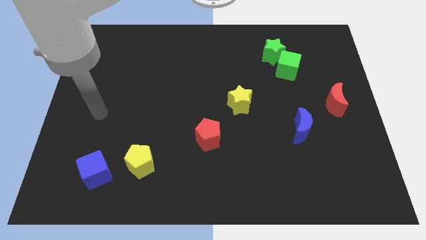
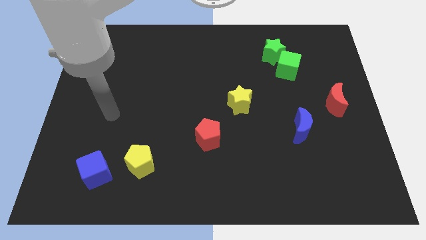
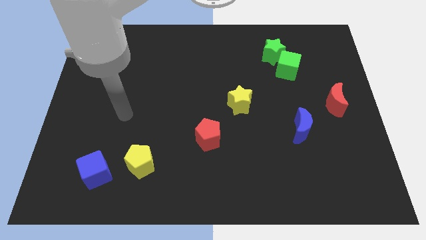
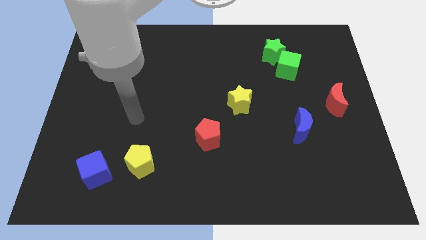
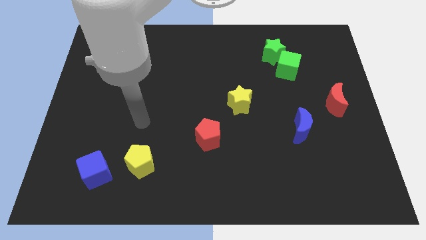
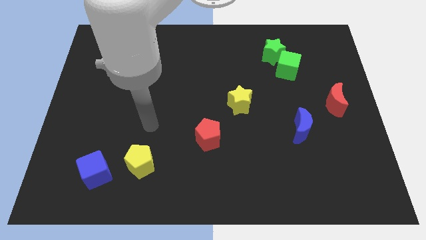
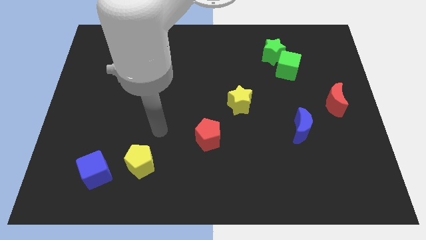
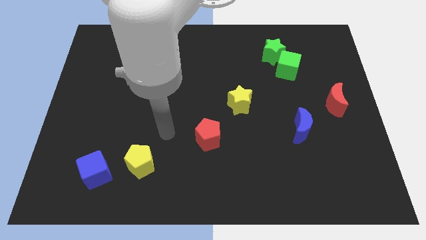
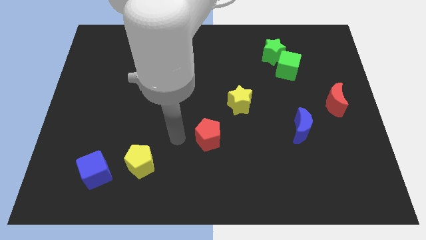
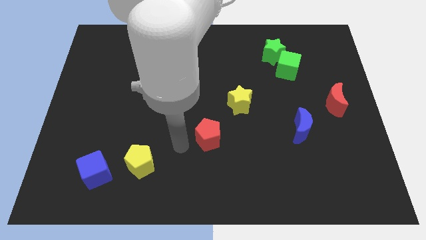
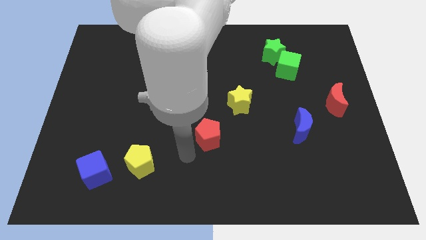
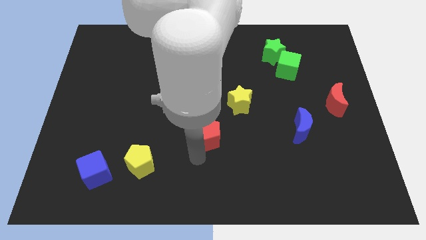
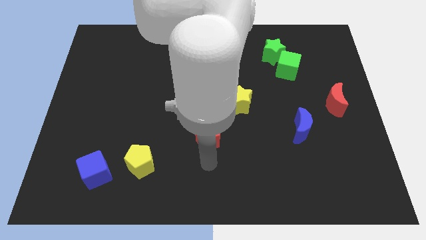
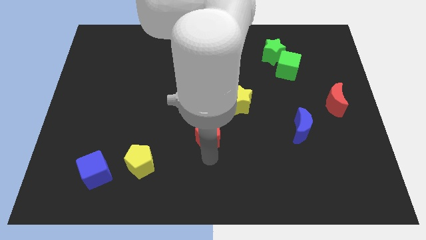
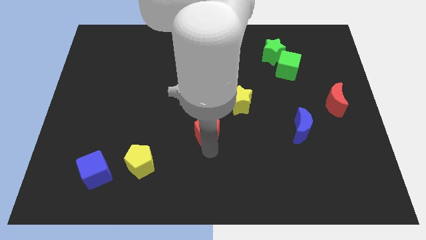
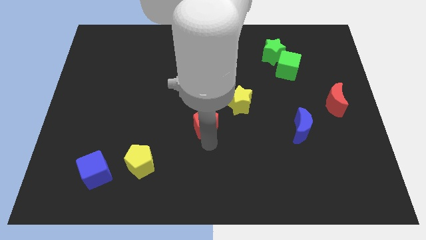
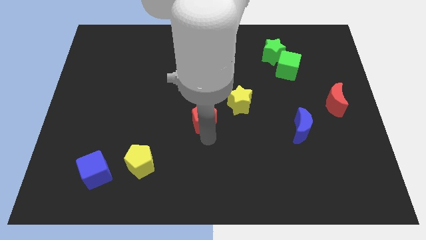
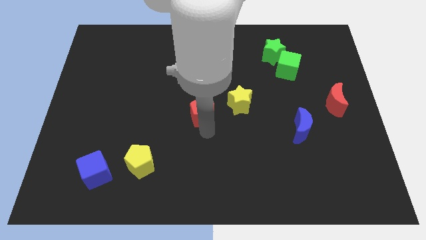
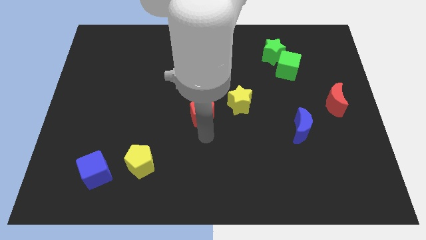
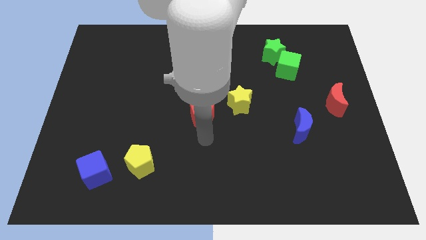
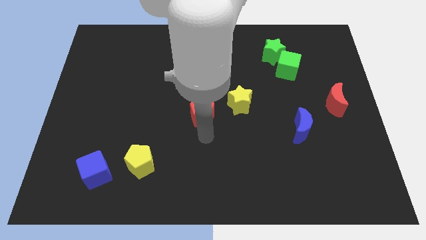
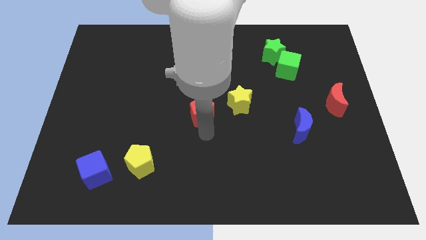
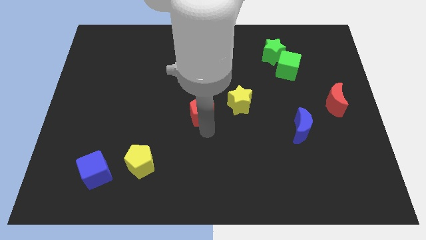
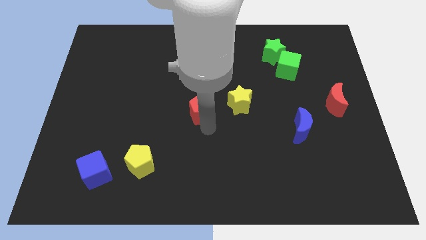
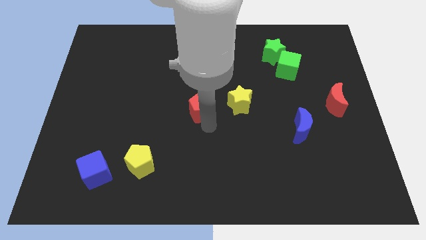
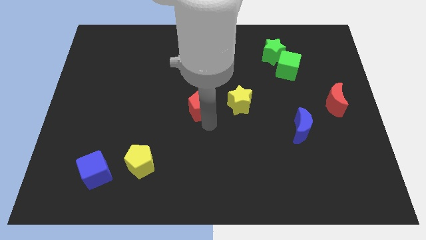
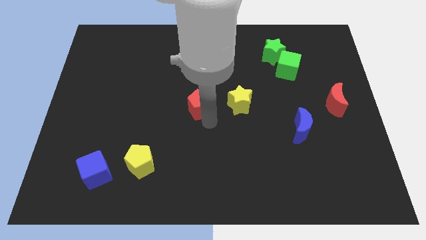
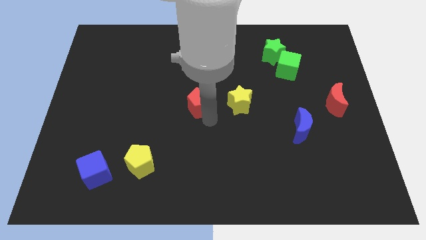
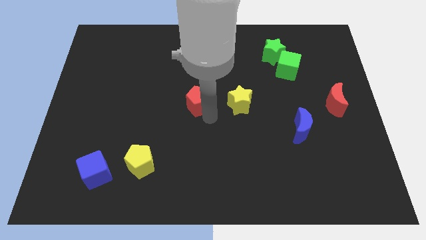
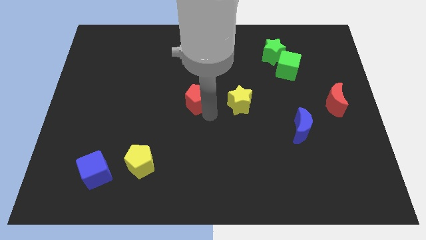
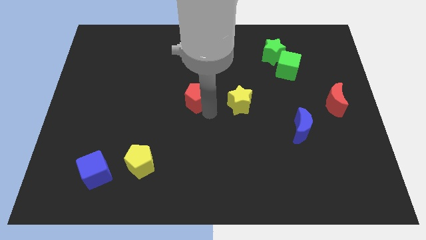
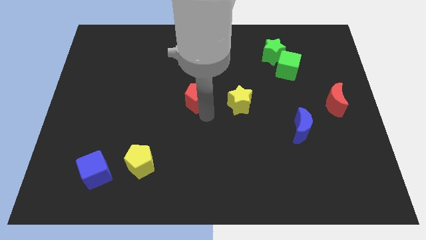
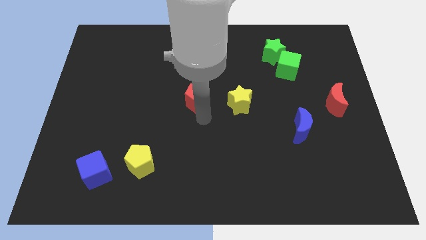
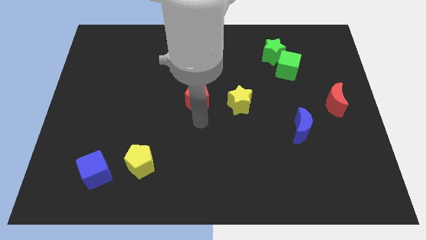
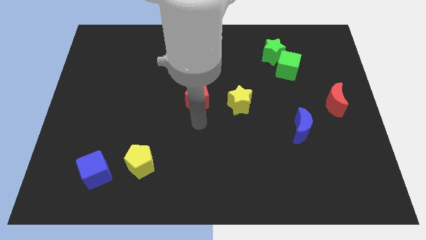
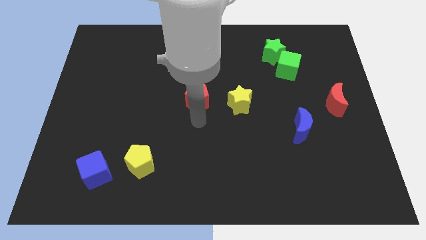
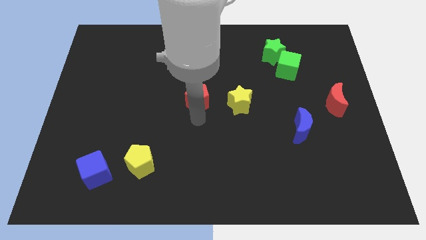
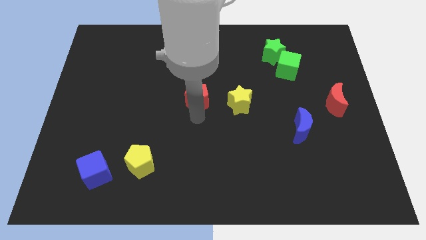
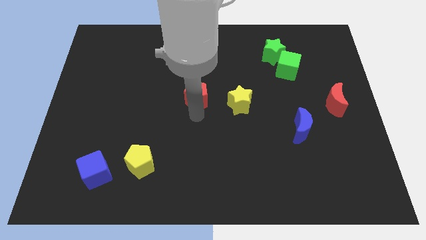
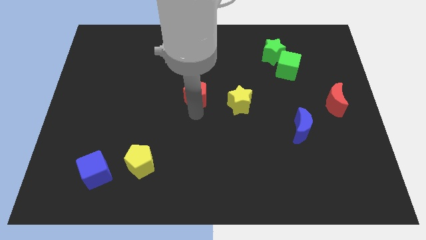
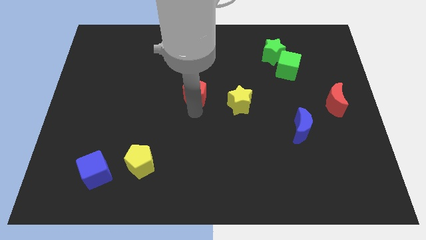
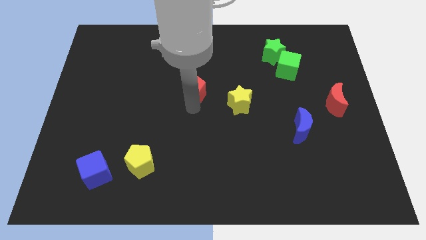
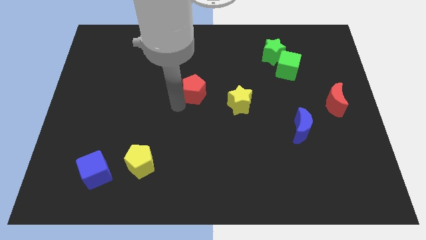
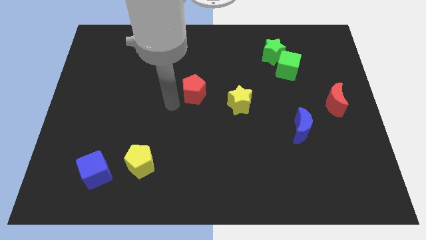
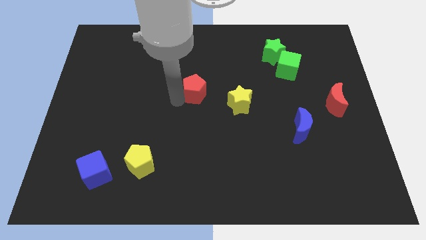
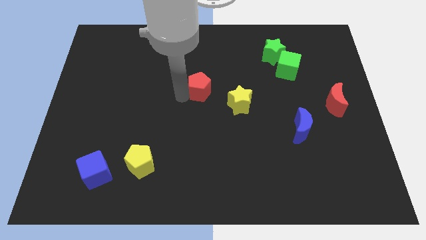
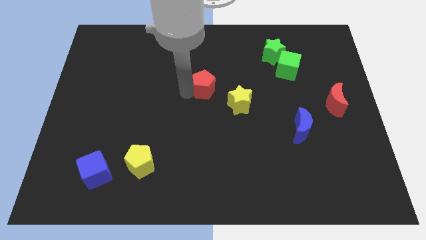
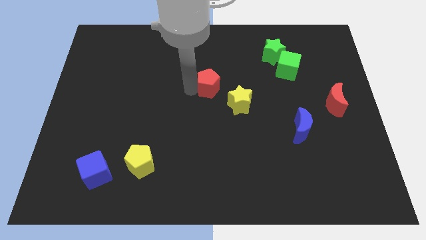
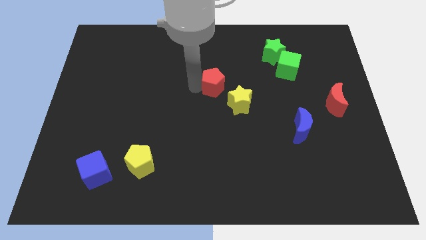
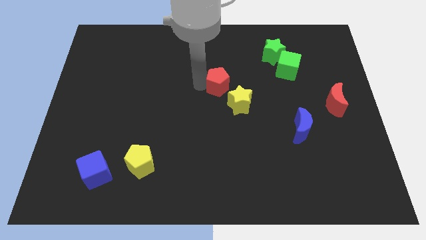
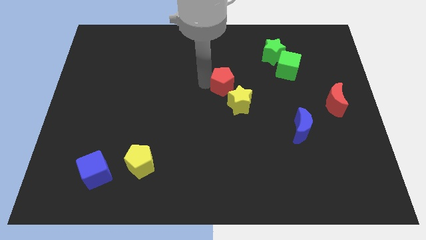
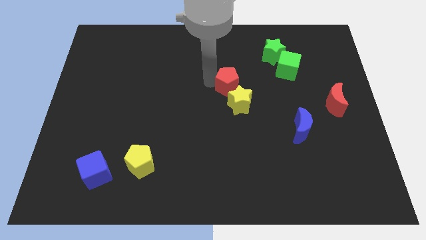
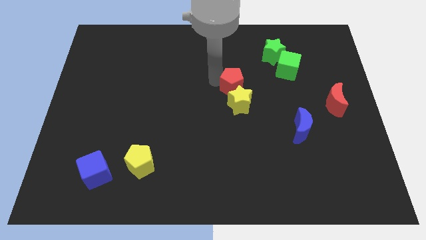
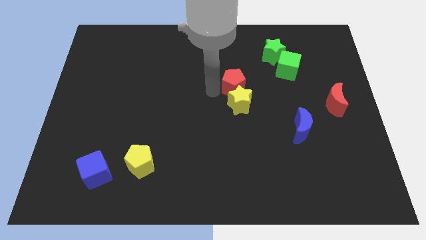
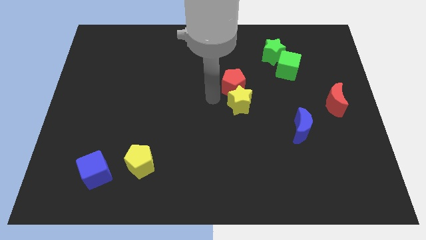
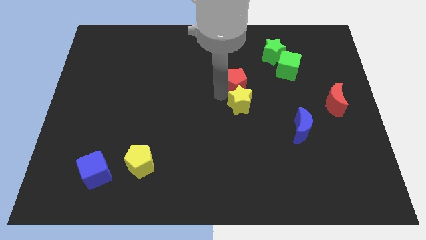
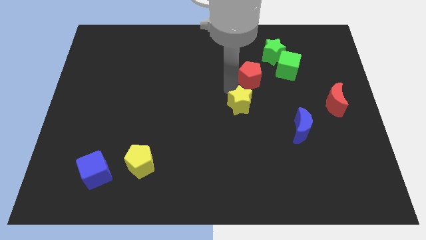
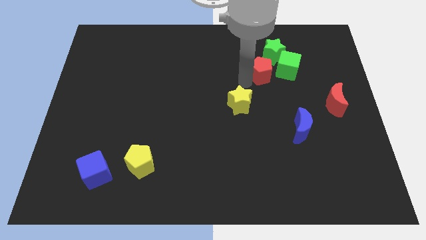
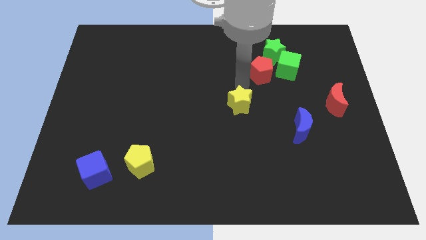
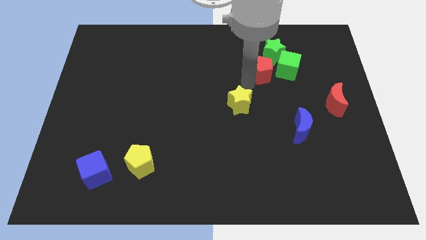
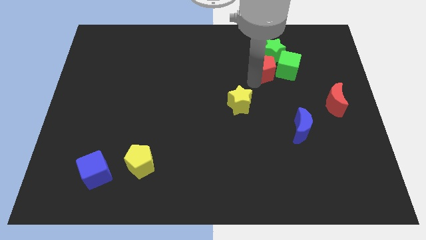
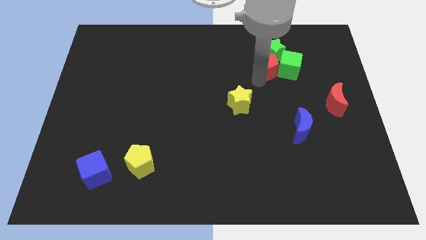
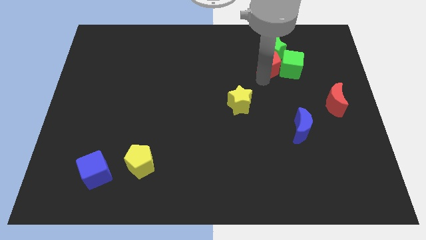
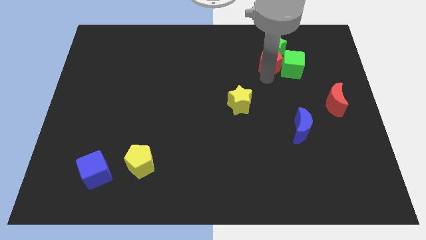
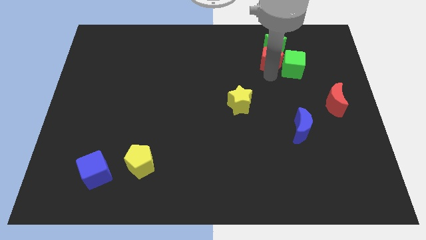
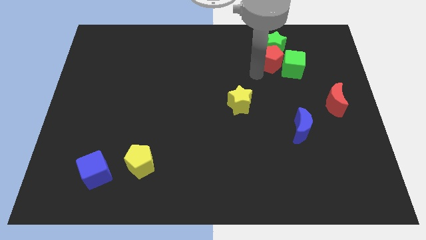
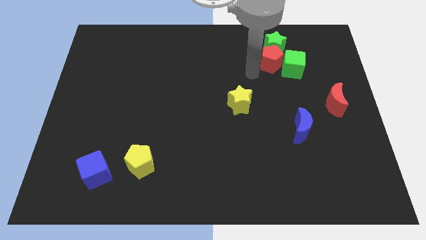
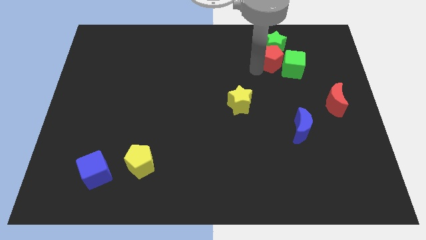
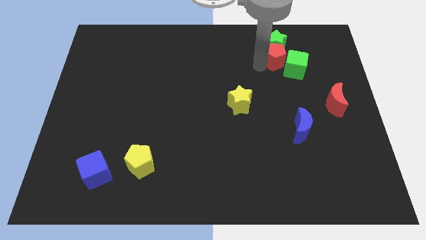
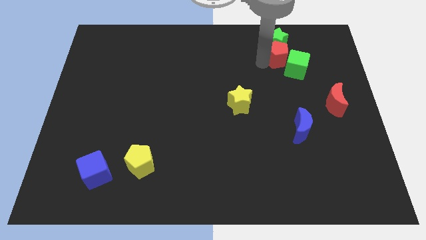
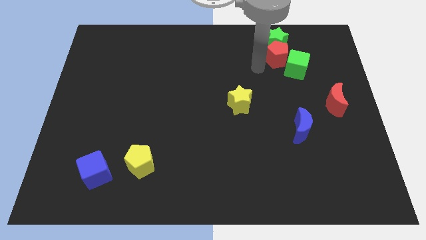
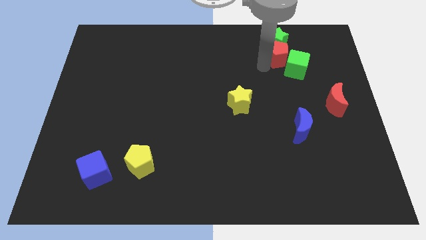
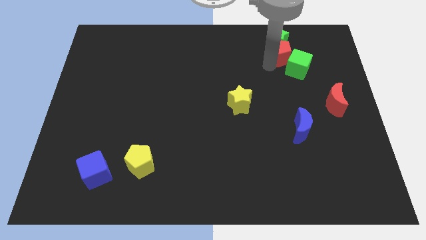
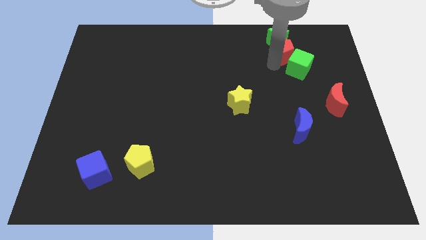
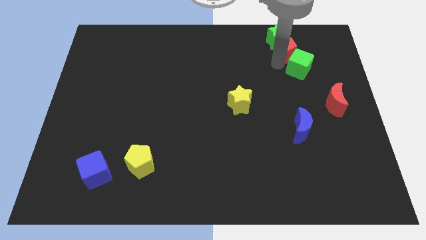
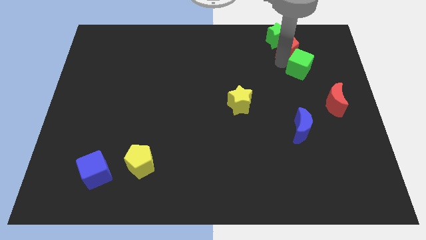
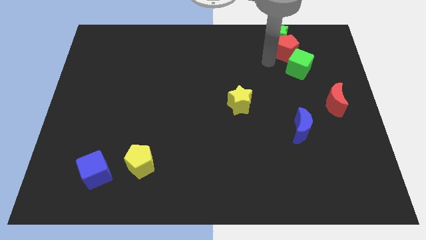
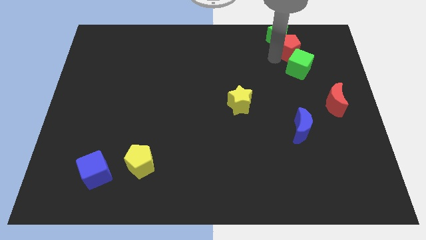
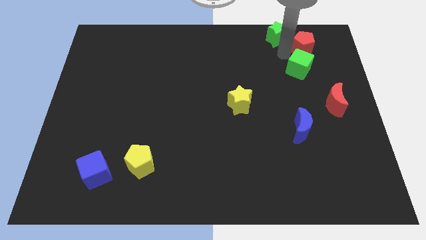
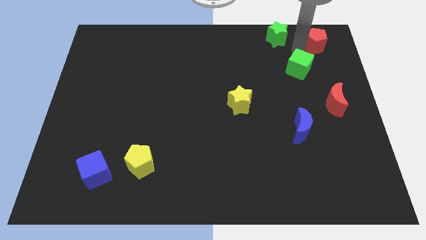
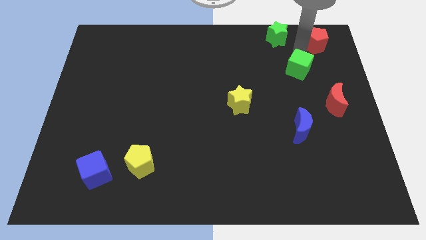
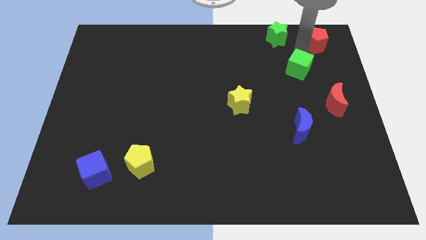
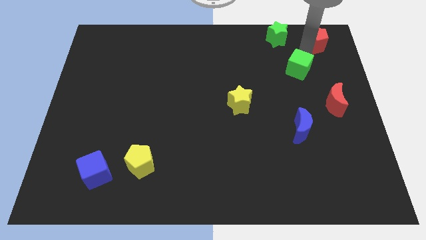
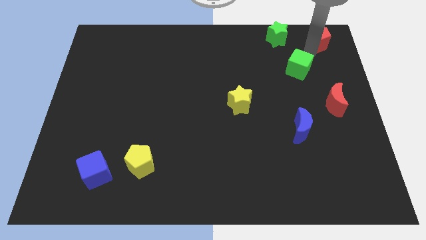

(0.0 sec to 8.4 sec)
slide the red pentagon to the top right of the board
